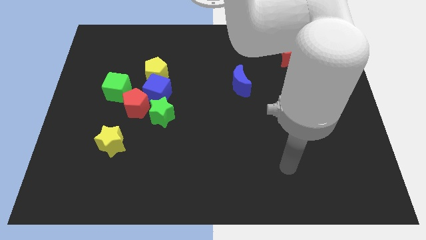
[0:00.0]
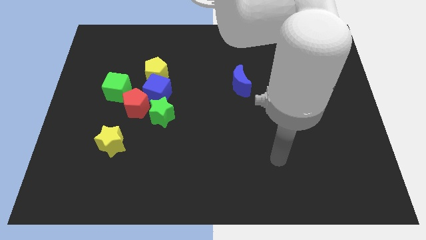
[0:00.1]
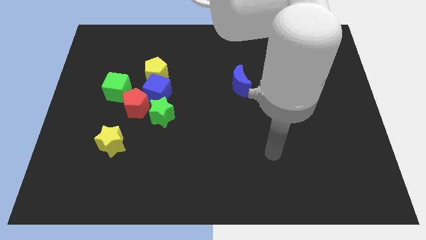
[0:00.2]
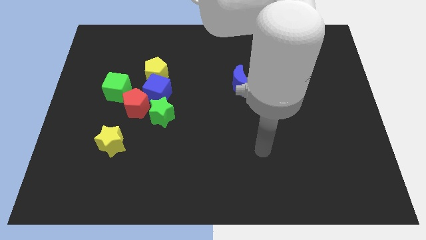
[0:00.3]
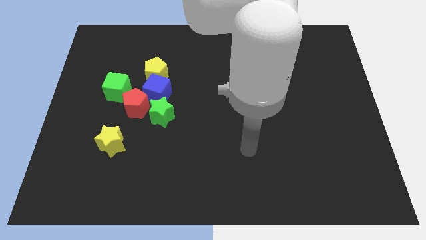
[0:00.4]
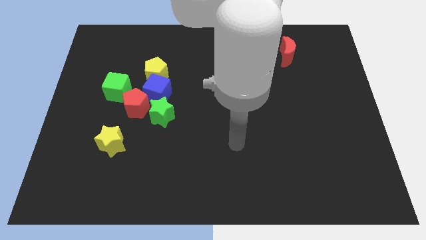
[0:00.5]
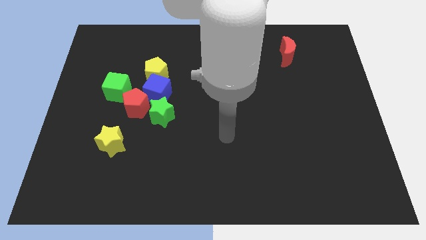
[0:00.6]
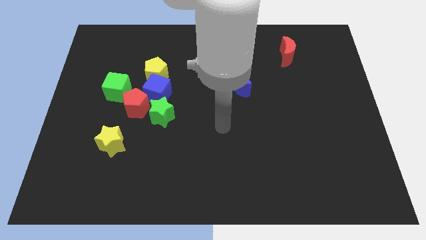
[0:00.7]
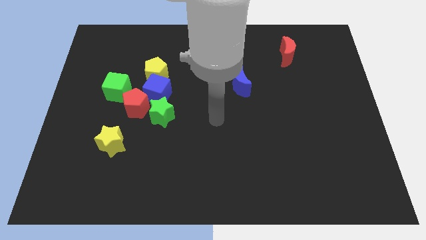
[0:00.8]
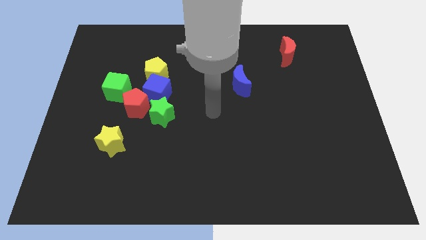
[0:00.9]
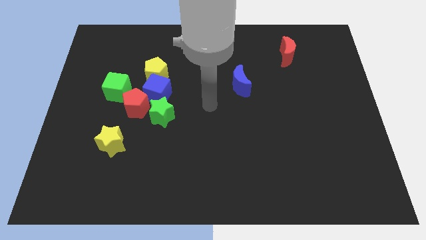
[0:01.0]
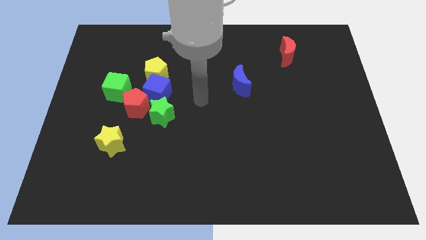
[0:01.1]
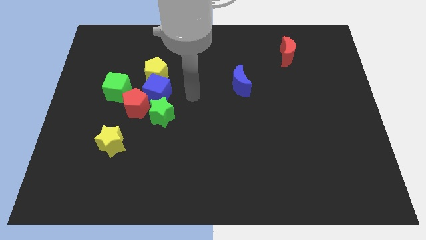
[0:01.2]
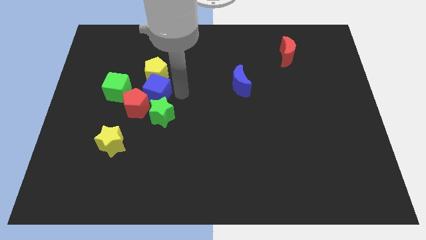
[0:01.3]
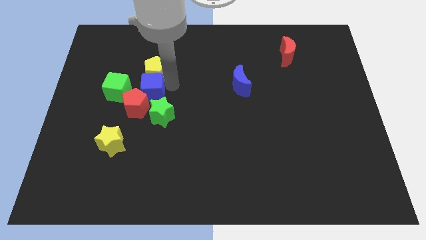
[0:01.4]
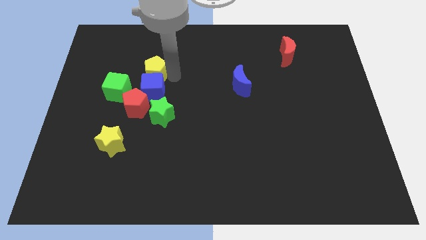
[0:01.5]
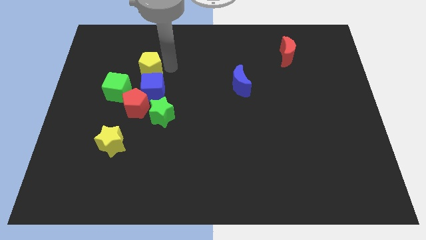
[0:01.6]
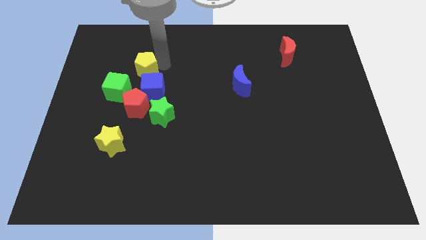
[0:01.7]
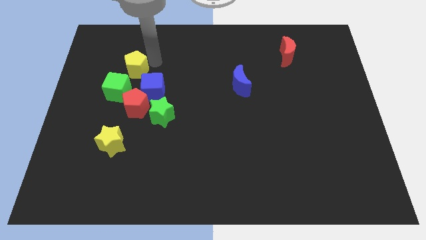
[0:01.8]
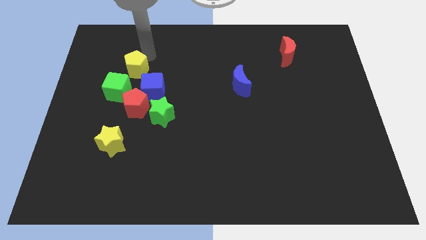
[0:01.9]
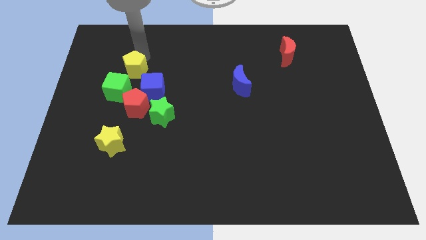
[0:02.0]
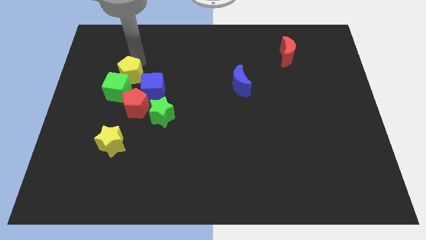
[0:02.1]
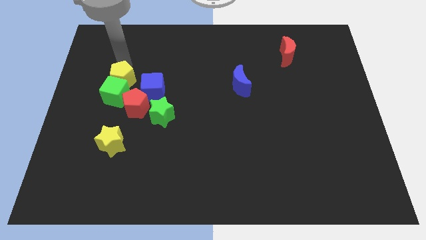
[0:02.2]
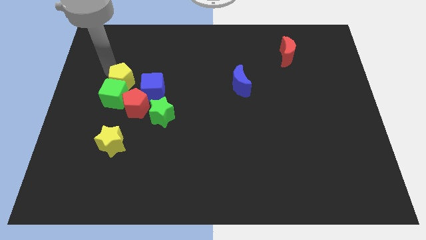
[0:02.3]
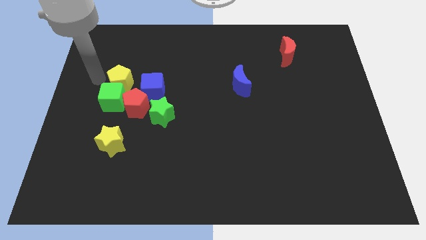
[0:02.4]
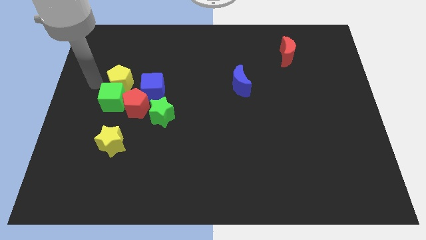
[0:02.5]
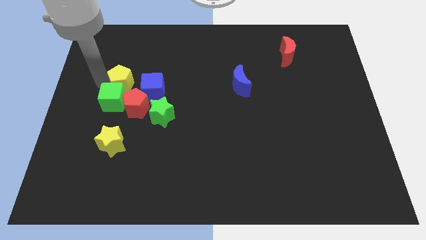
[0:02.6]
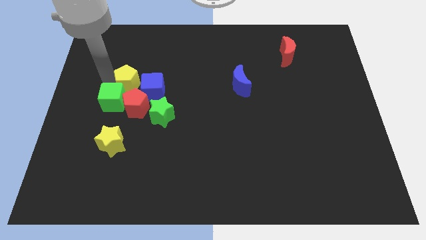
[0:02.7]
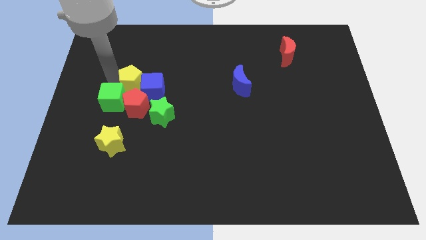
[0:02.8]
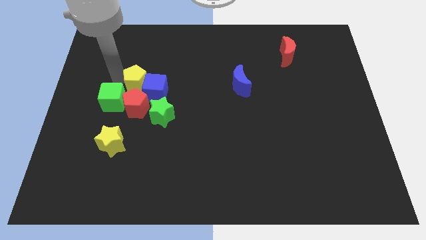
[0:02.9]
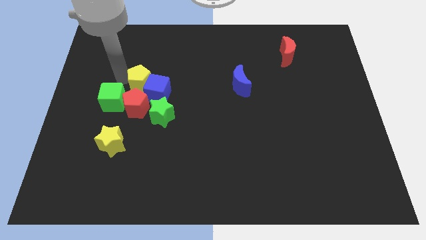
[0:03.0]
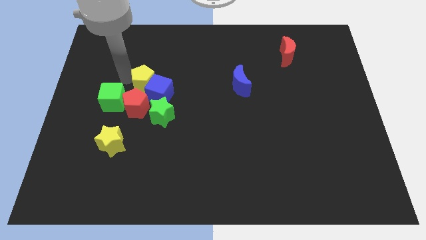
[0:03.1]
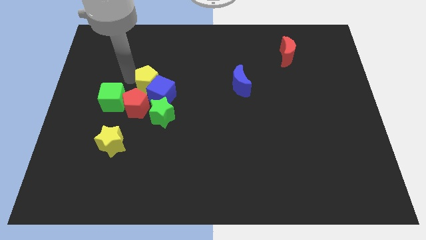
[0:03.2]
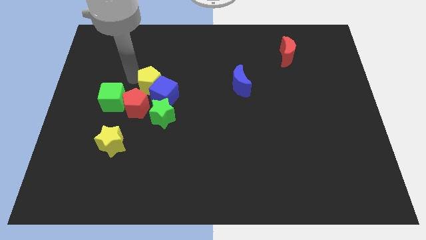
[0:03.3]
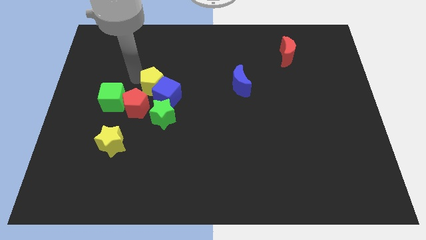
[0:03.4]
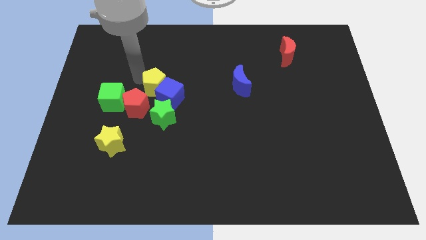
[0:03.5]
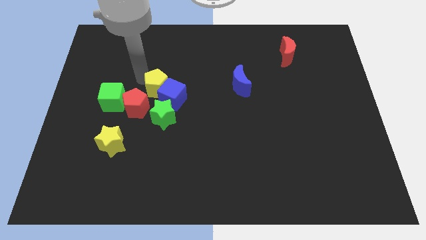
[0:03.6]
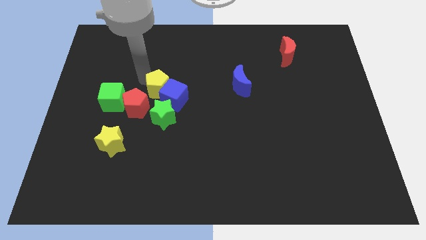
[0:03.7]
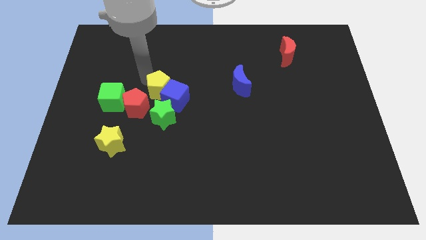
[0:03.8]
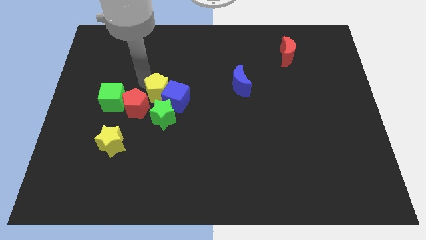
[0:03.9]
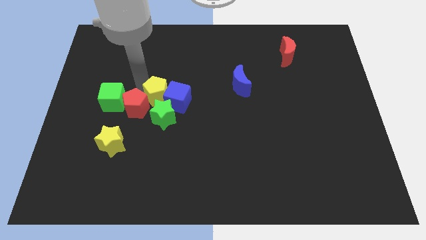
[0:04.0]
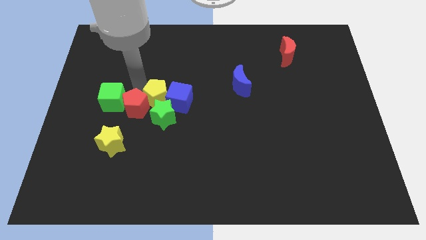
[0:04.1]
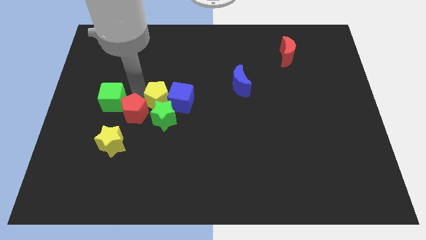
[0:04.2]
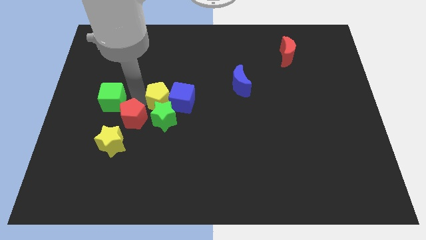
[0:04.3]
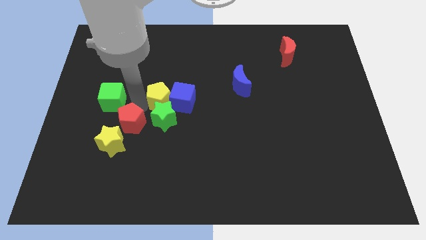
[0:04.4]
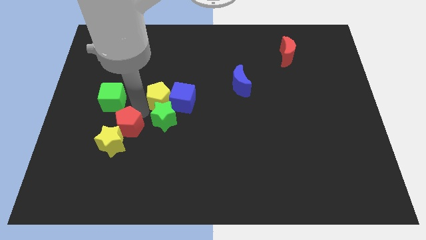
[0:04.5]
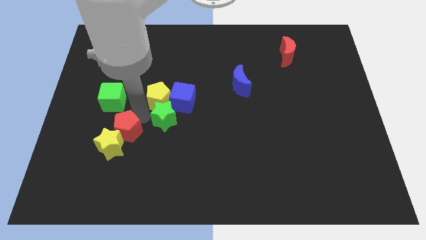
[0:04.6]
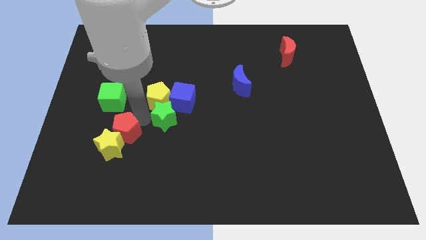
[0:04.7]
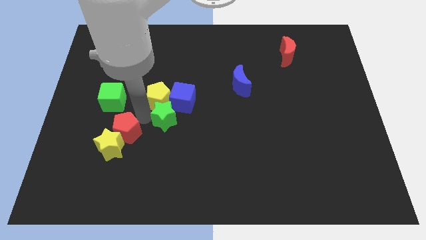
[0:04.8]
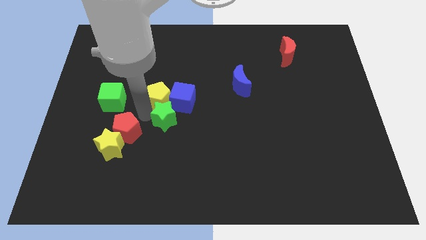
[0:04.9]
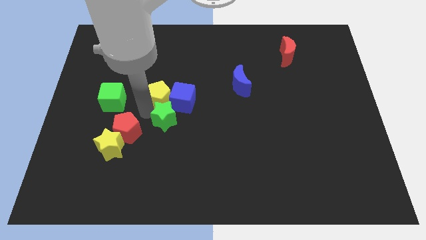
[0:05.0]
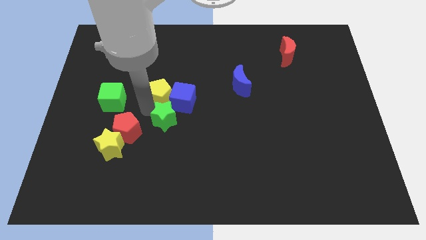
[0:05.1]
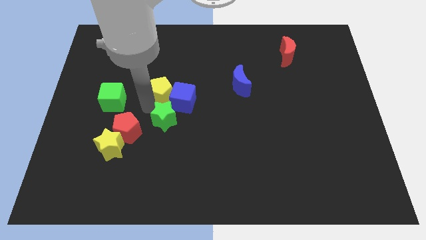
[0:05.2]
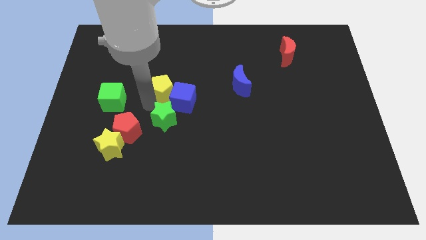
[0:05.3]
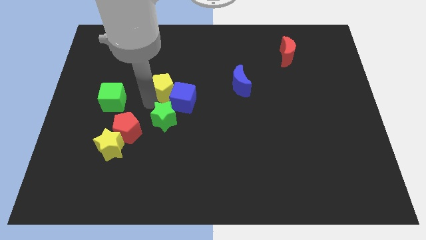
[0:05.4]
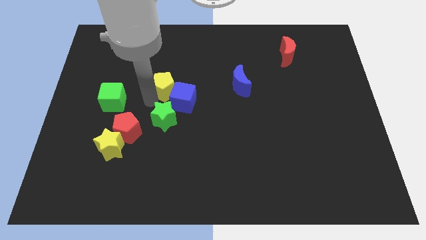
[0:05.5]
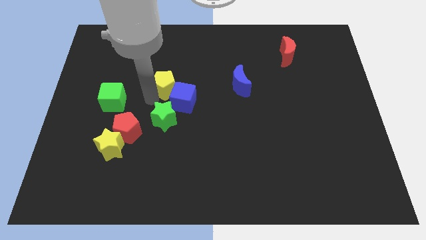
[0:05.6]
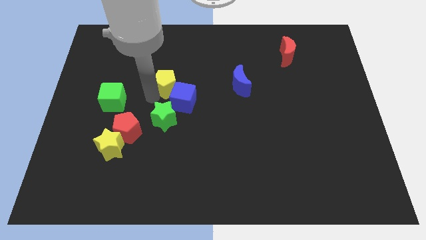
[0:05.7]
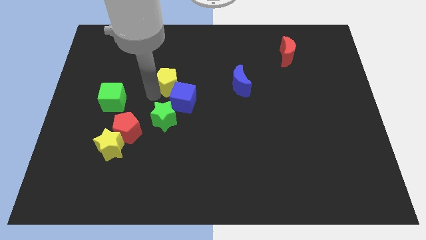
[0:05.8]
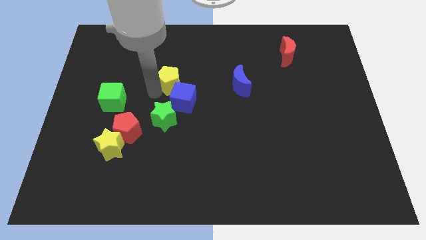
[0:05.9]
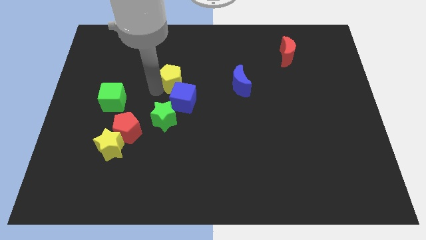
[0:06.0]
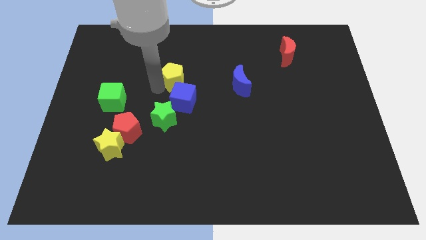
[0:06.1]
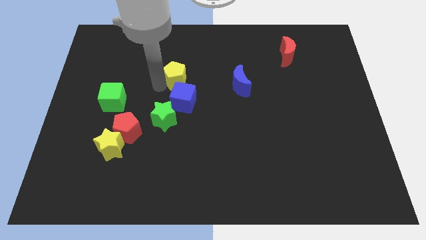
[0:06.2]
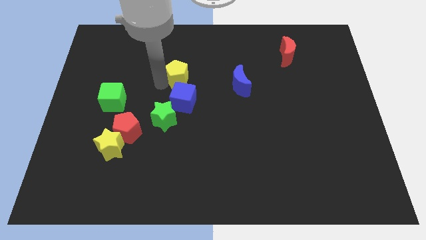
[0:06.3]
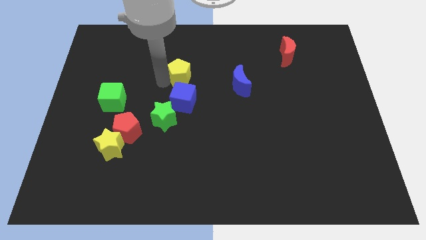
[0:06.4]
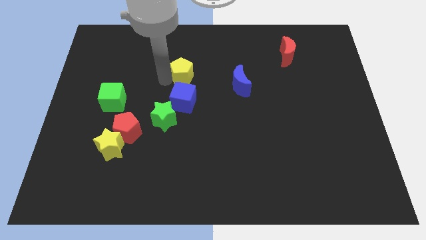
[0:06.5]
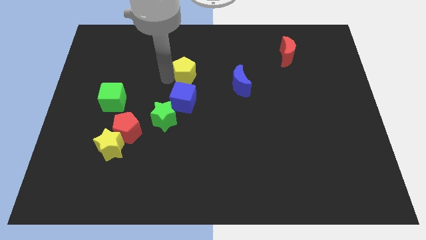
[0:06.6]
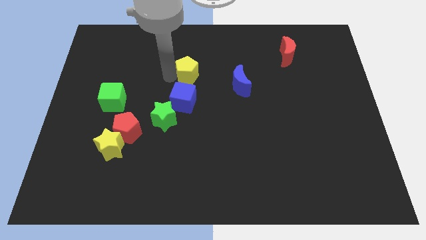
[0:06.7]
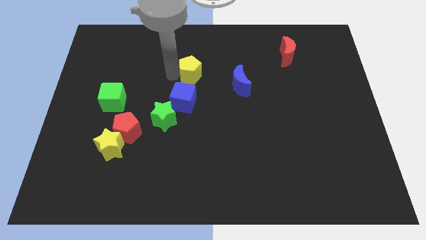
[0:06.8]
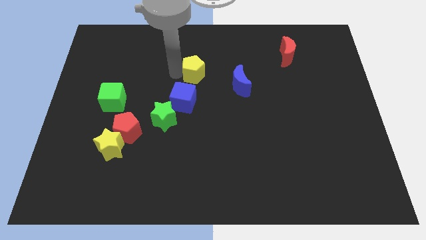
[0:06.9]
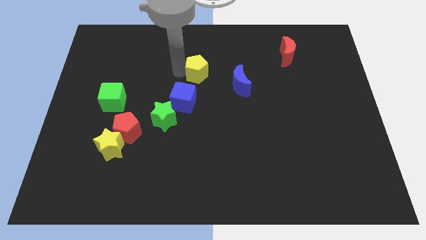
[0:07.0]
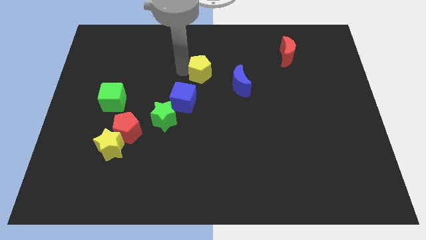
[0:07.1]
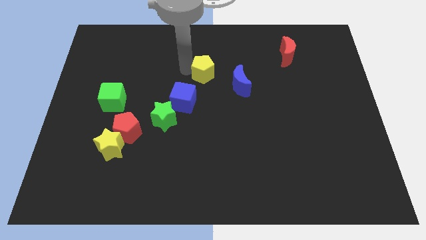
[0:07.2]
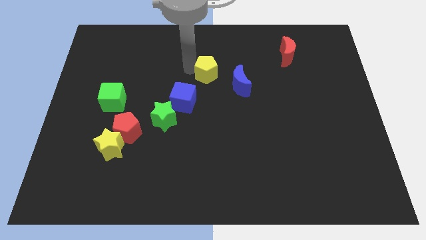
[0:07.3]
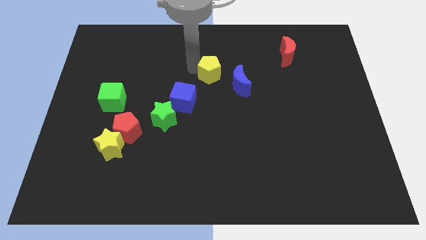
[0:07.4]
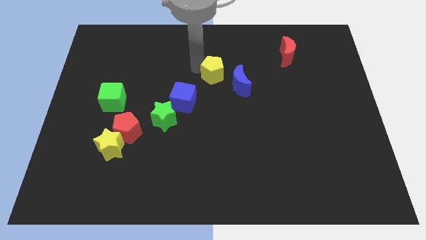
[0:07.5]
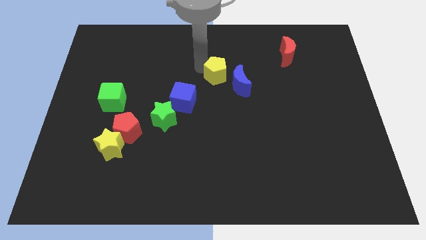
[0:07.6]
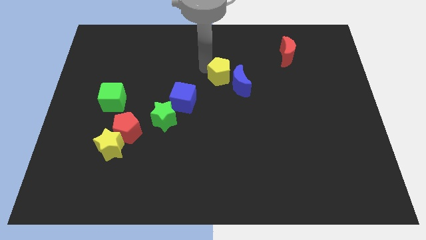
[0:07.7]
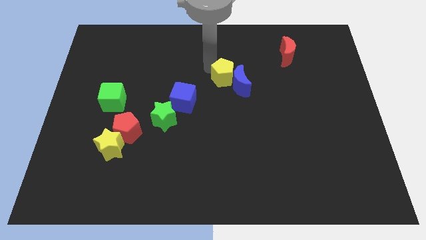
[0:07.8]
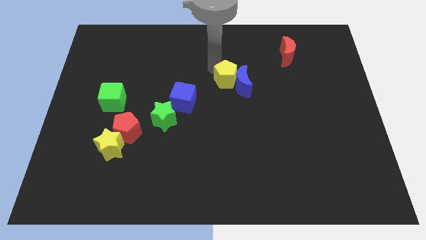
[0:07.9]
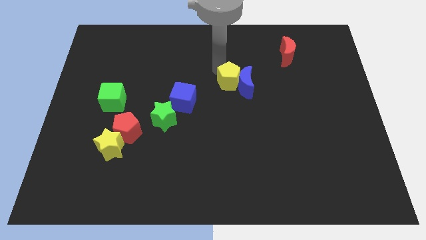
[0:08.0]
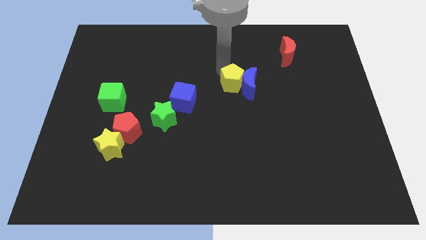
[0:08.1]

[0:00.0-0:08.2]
push the yellow pentagon slightly diagonally downwards and right
